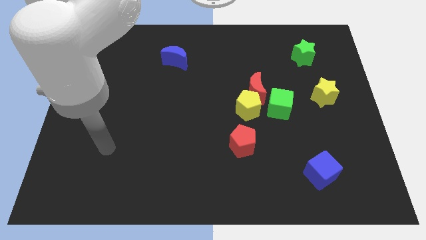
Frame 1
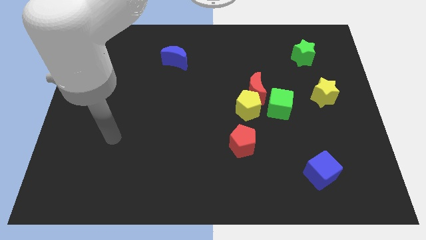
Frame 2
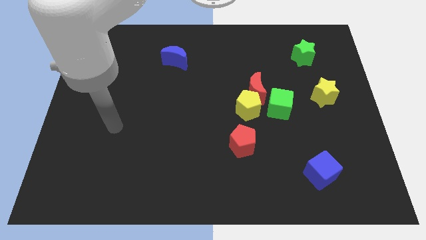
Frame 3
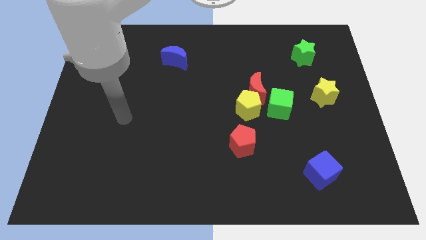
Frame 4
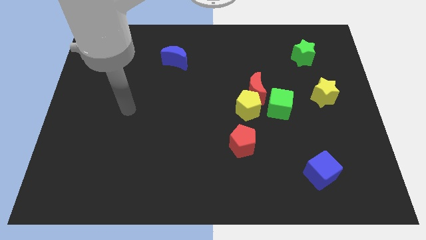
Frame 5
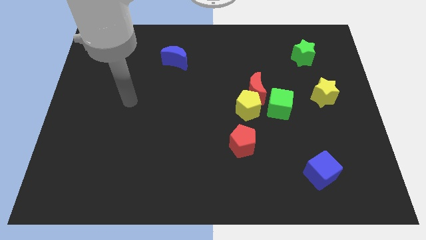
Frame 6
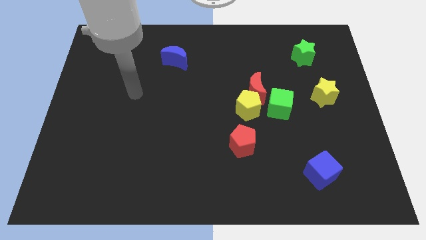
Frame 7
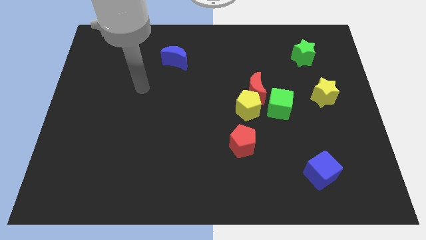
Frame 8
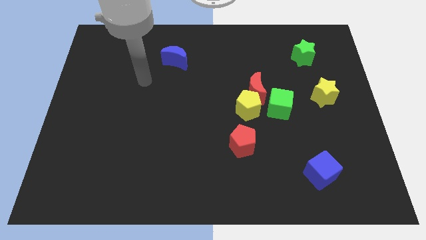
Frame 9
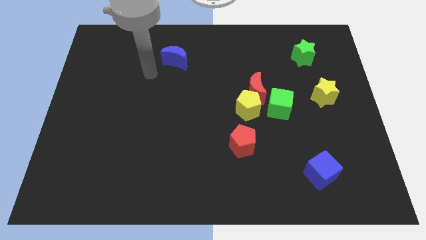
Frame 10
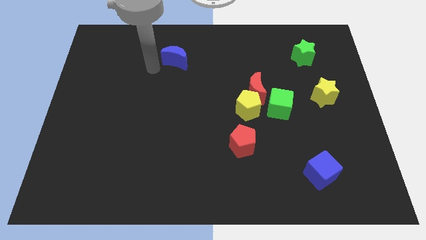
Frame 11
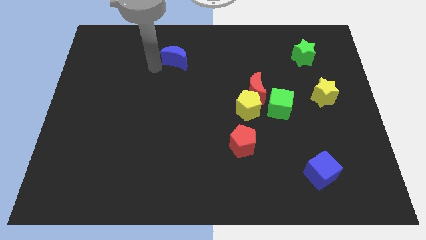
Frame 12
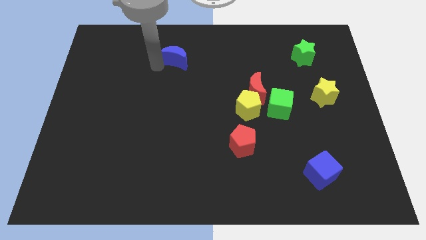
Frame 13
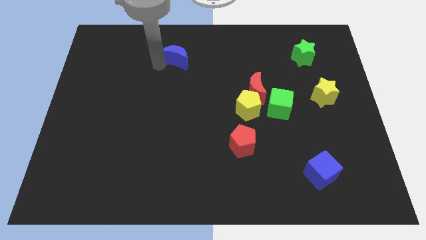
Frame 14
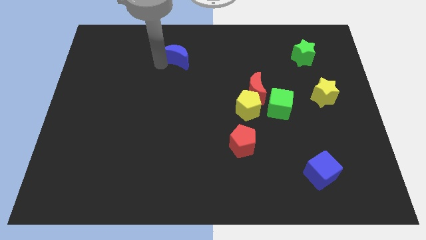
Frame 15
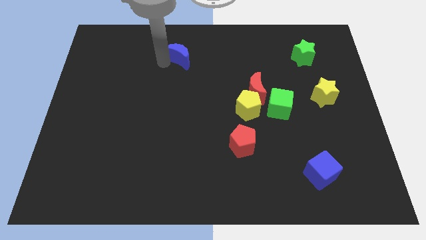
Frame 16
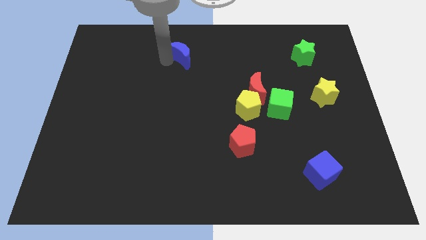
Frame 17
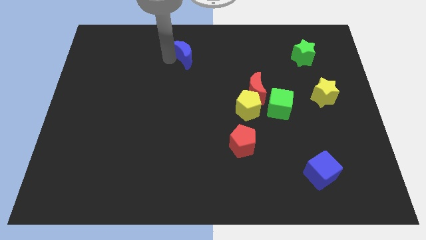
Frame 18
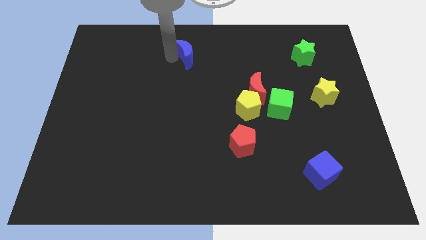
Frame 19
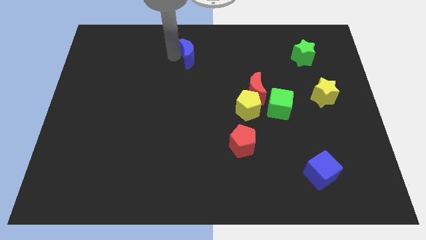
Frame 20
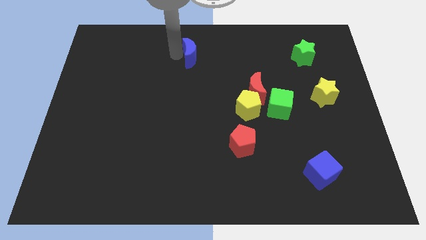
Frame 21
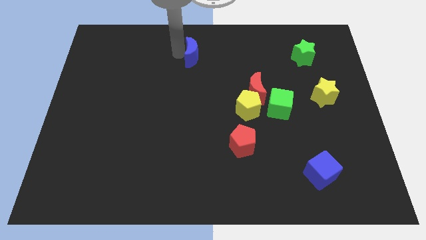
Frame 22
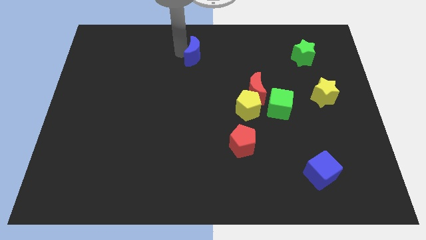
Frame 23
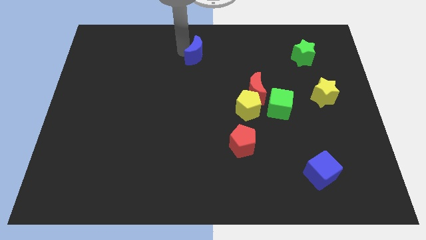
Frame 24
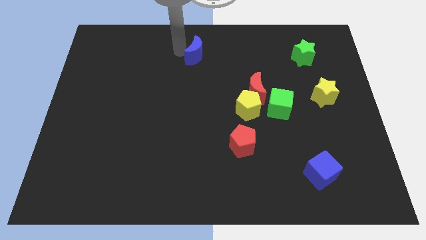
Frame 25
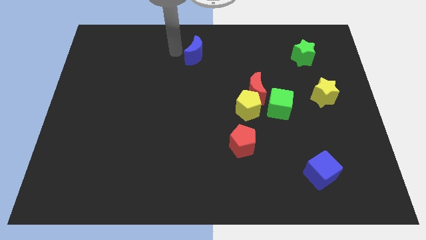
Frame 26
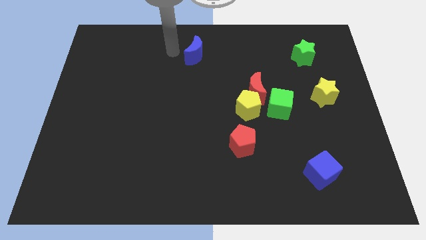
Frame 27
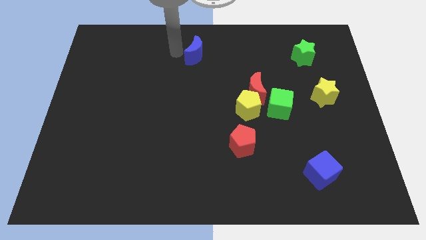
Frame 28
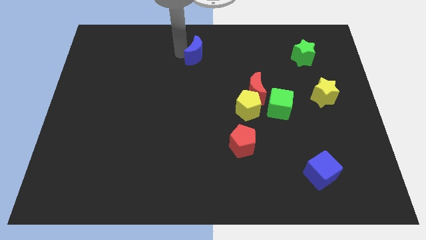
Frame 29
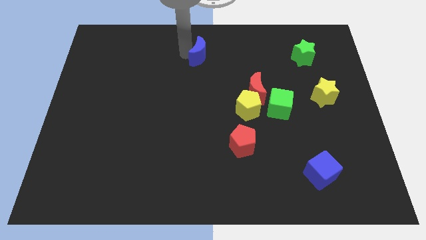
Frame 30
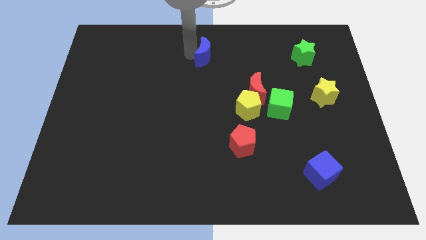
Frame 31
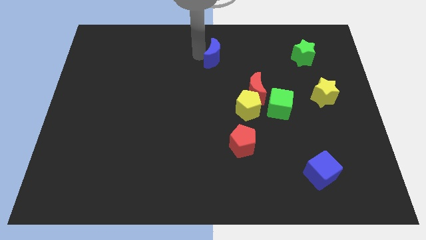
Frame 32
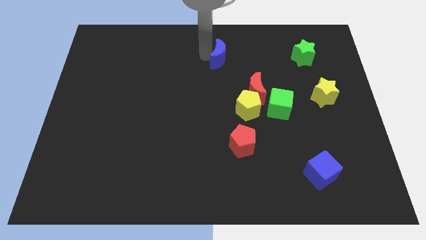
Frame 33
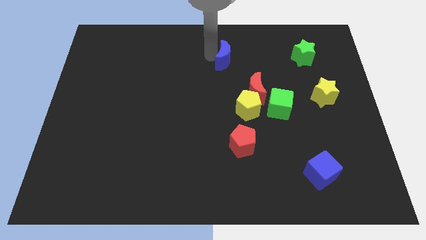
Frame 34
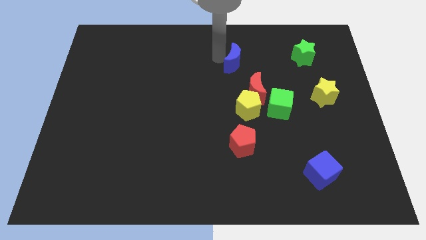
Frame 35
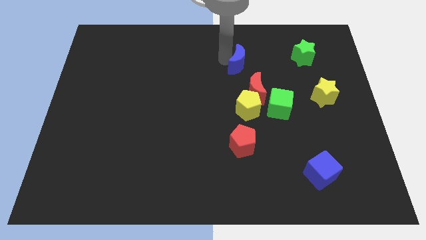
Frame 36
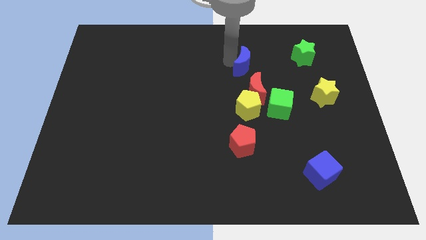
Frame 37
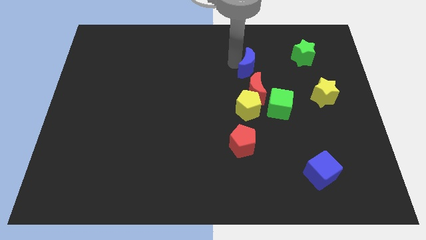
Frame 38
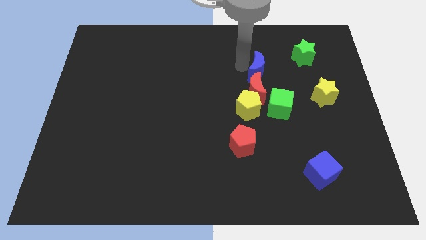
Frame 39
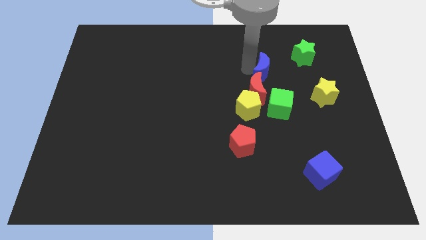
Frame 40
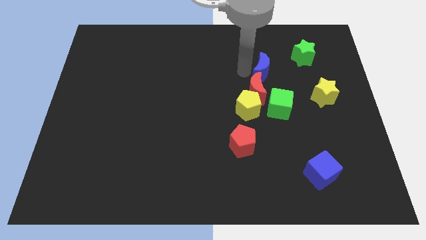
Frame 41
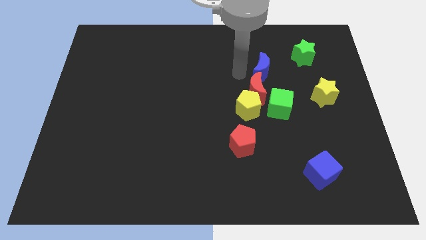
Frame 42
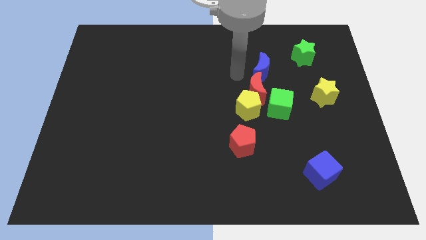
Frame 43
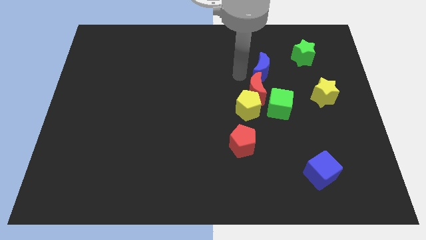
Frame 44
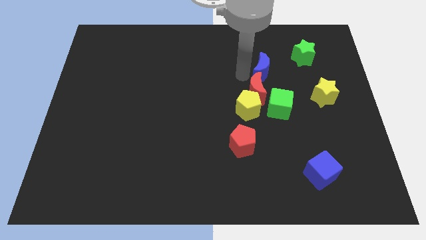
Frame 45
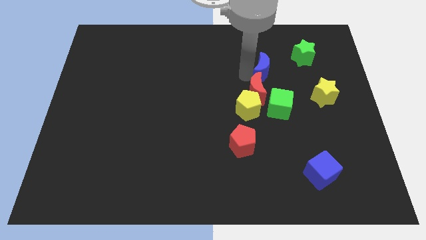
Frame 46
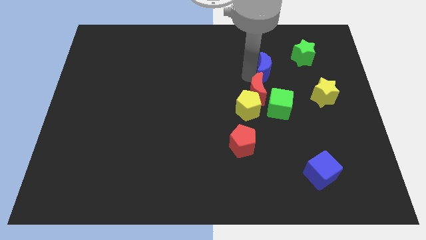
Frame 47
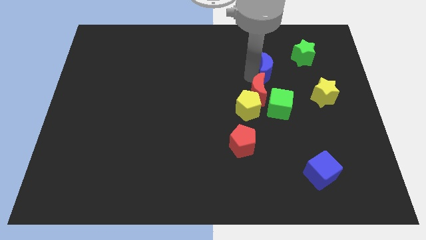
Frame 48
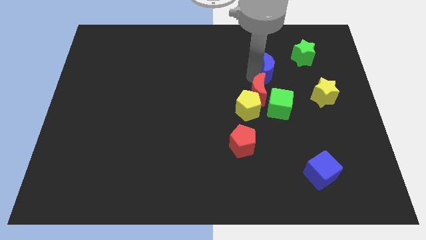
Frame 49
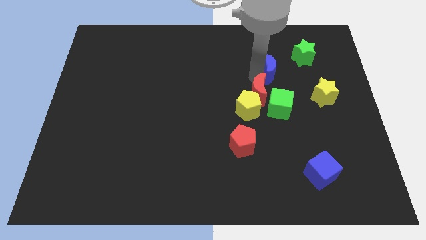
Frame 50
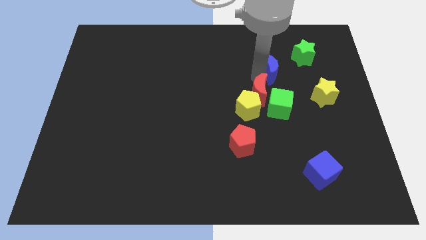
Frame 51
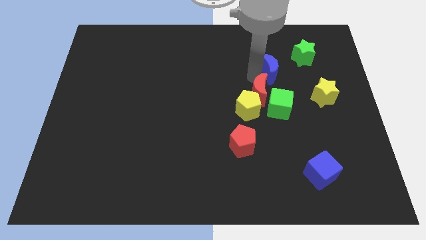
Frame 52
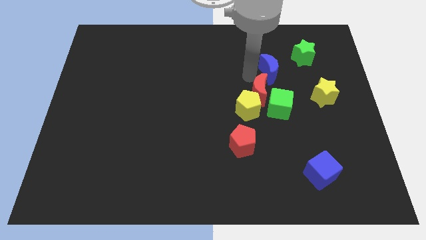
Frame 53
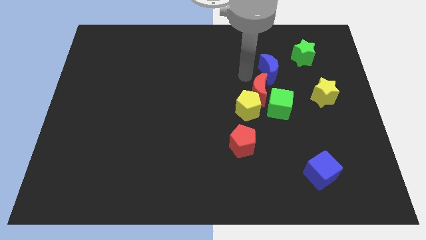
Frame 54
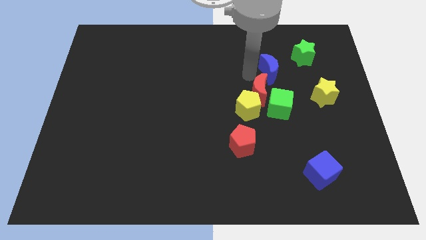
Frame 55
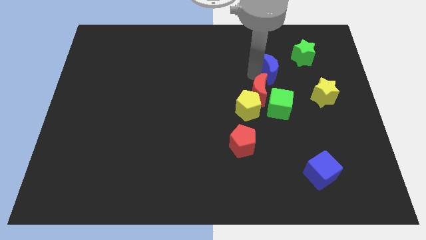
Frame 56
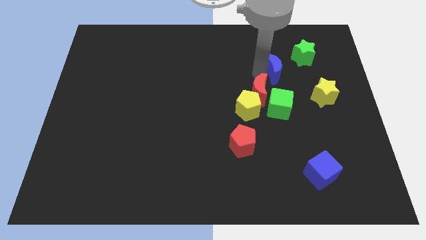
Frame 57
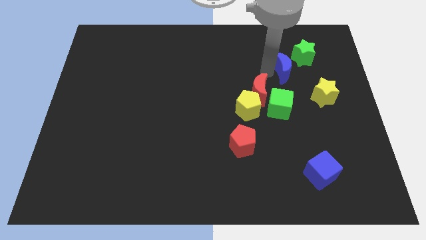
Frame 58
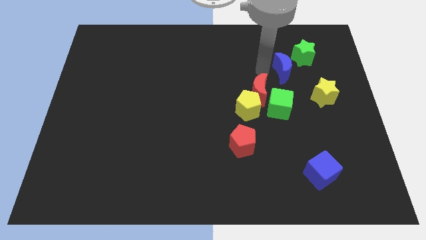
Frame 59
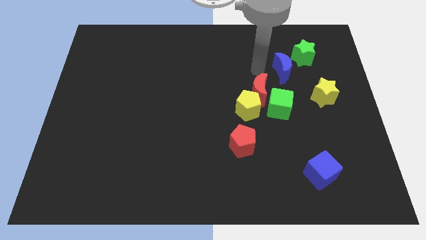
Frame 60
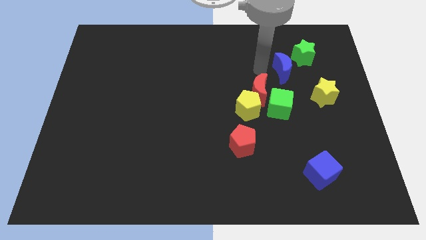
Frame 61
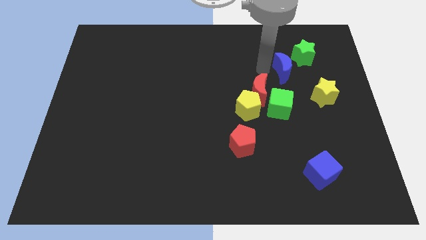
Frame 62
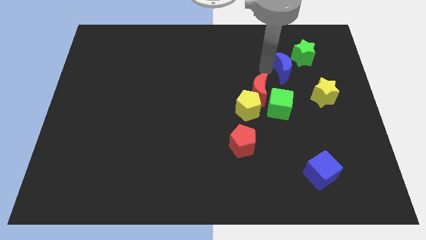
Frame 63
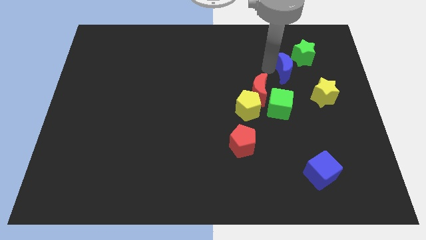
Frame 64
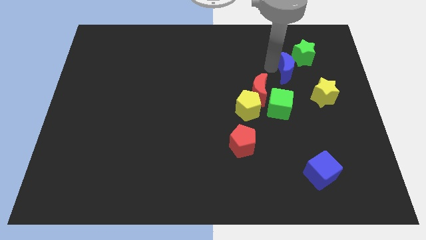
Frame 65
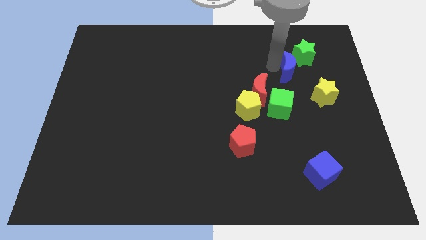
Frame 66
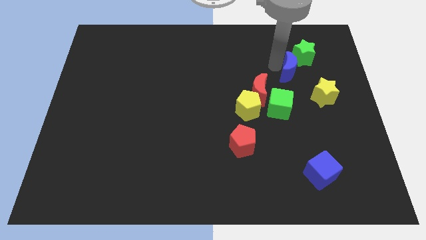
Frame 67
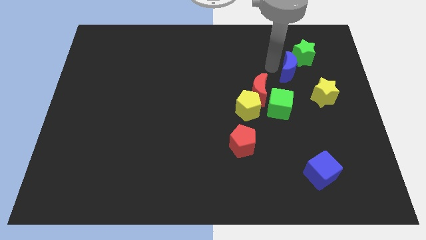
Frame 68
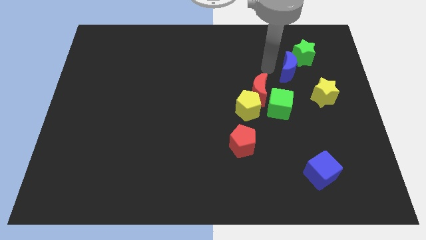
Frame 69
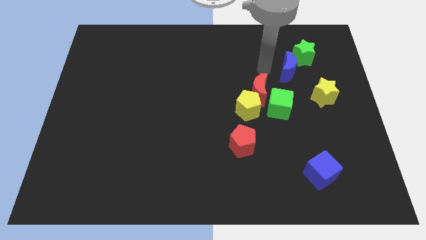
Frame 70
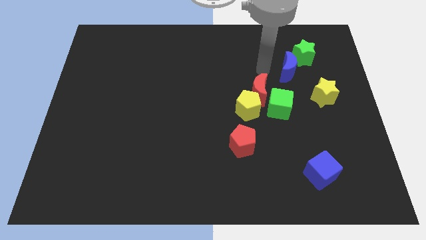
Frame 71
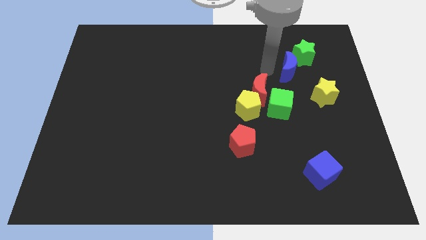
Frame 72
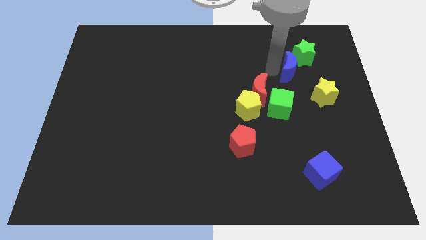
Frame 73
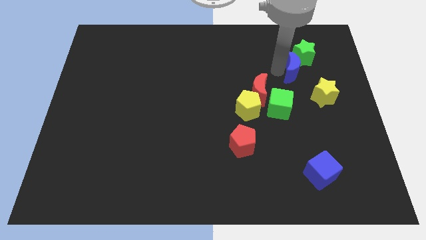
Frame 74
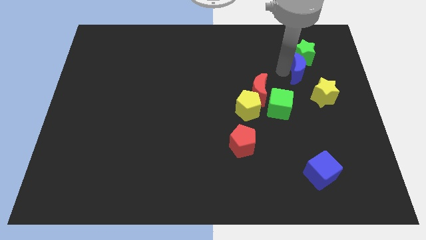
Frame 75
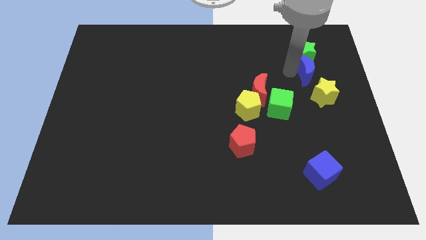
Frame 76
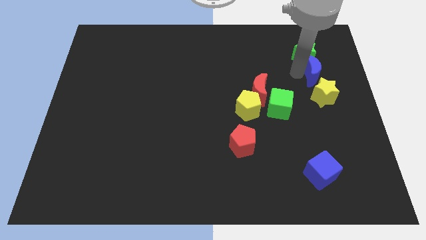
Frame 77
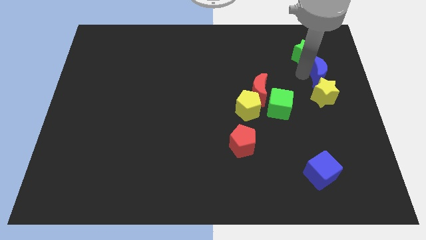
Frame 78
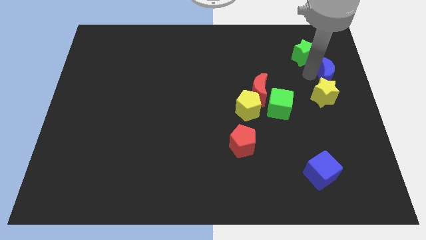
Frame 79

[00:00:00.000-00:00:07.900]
put the blue moon to the center right
